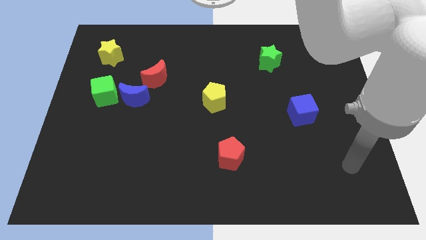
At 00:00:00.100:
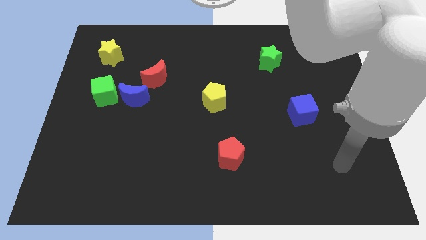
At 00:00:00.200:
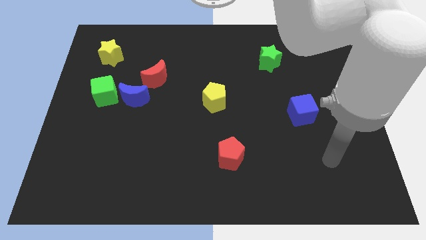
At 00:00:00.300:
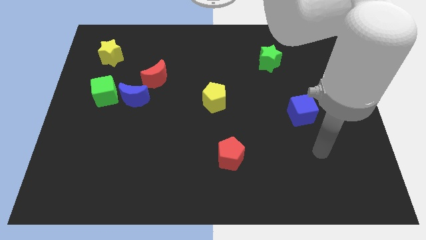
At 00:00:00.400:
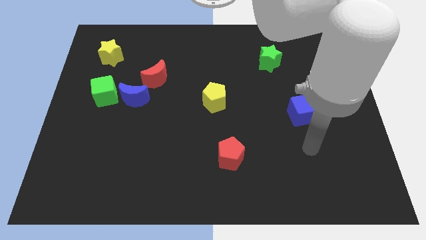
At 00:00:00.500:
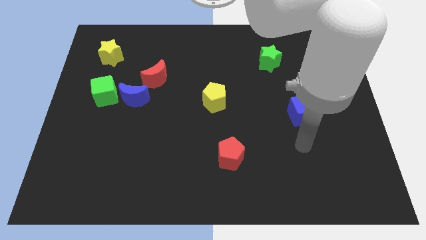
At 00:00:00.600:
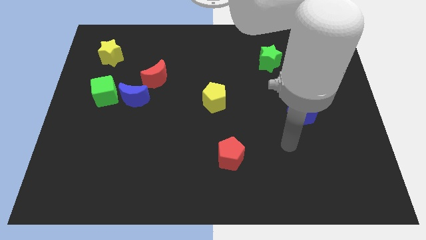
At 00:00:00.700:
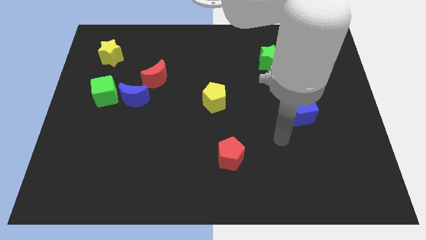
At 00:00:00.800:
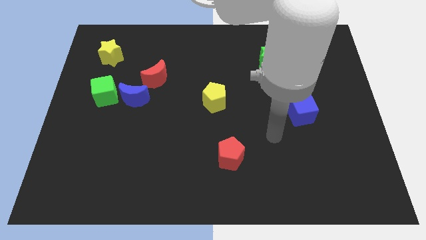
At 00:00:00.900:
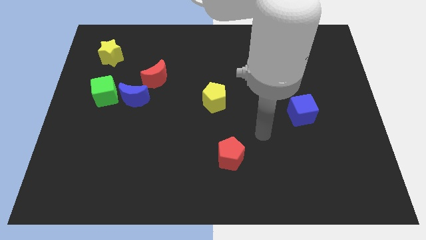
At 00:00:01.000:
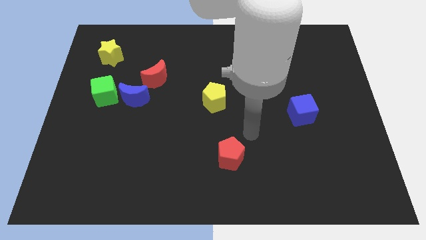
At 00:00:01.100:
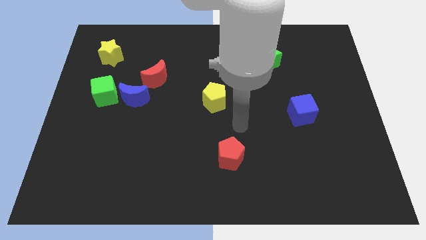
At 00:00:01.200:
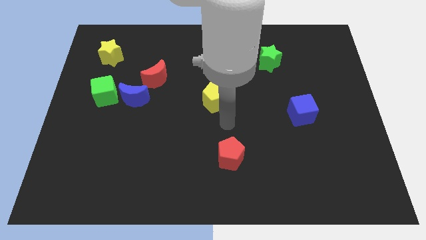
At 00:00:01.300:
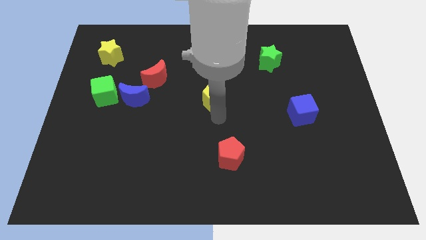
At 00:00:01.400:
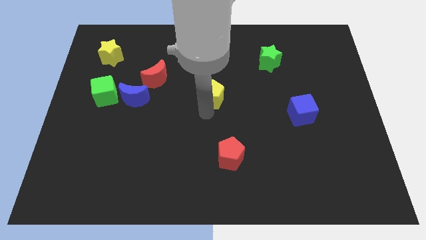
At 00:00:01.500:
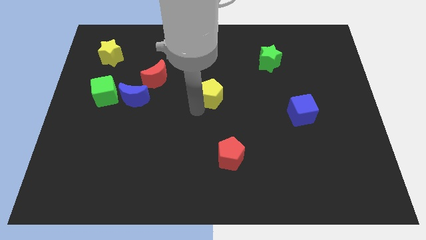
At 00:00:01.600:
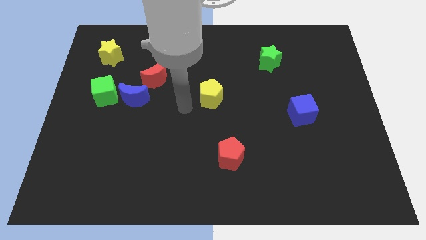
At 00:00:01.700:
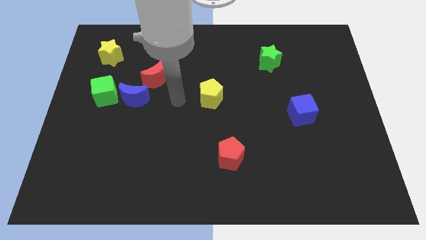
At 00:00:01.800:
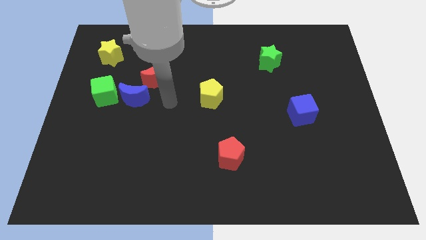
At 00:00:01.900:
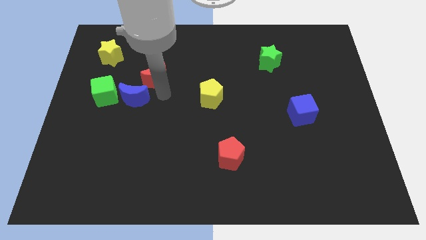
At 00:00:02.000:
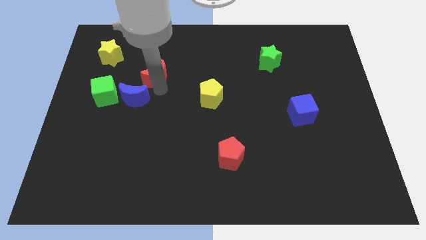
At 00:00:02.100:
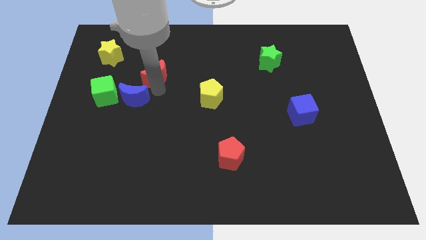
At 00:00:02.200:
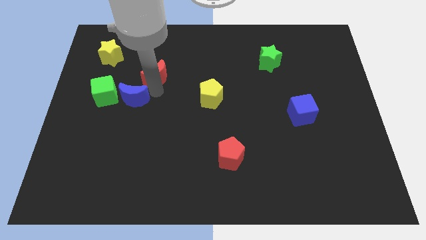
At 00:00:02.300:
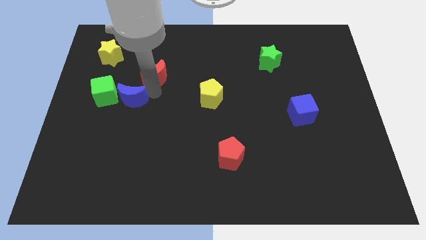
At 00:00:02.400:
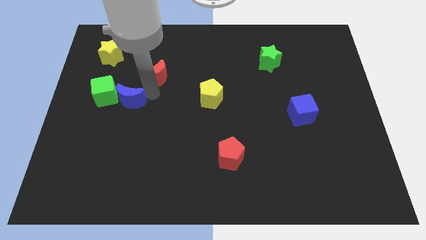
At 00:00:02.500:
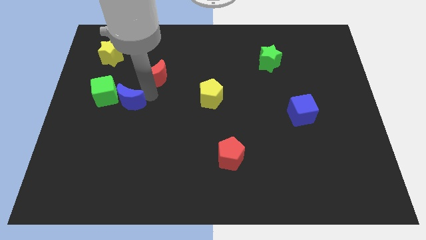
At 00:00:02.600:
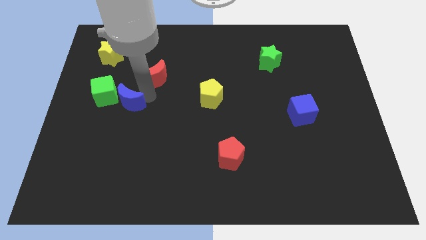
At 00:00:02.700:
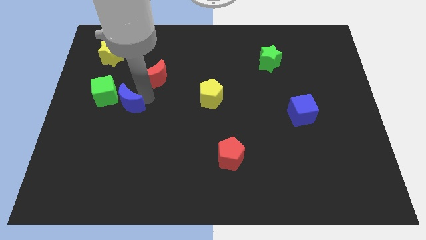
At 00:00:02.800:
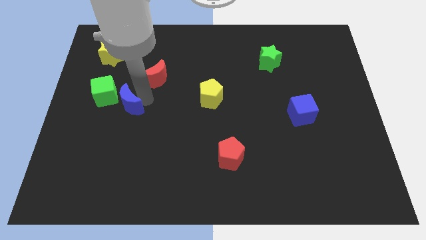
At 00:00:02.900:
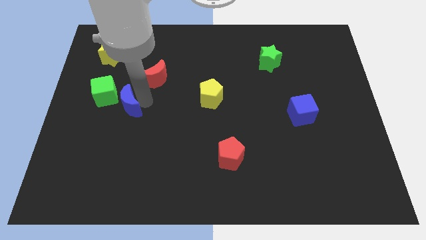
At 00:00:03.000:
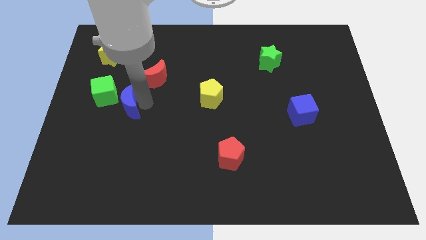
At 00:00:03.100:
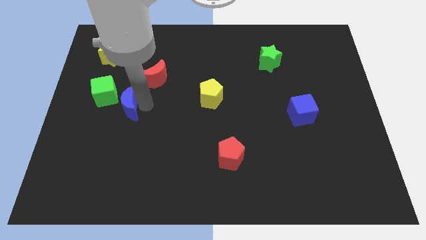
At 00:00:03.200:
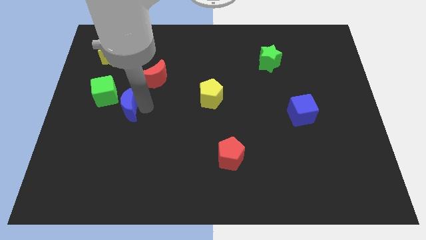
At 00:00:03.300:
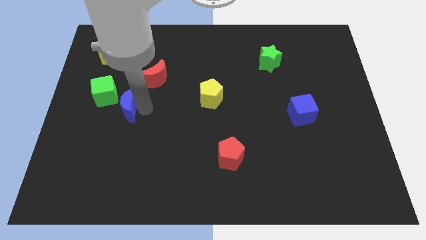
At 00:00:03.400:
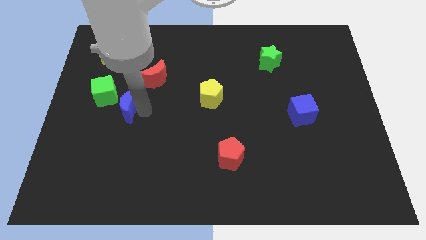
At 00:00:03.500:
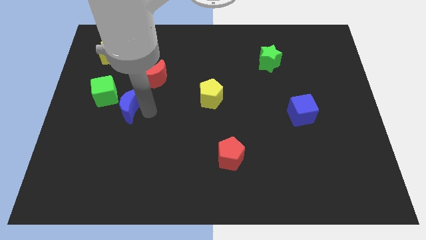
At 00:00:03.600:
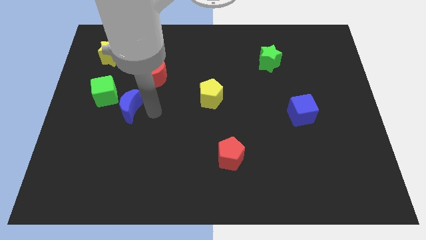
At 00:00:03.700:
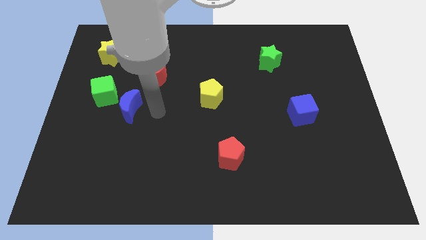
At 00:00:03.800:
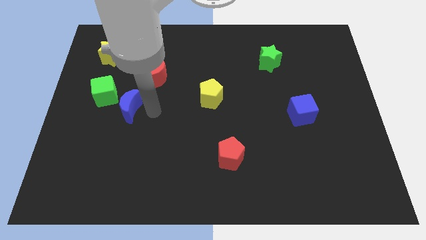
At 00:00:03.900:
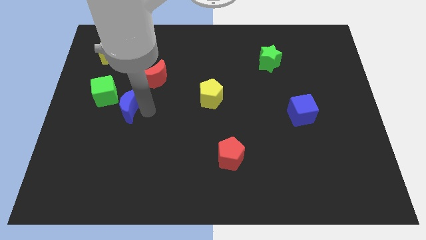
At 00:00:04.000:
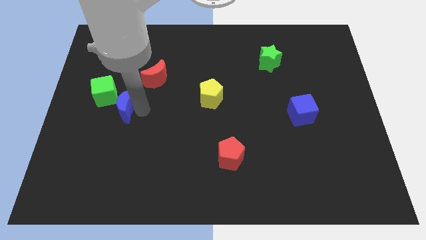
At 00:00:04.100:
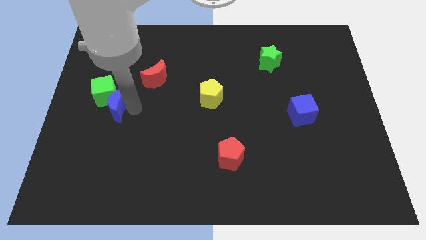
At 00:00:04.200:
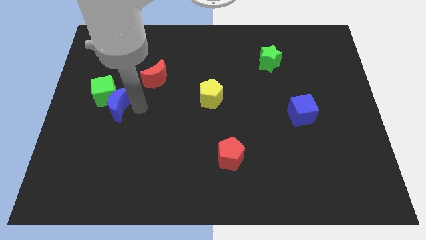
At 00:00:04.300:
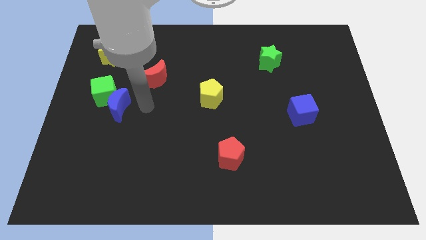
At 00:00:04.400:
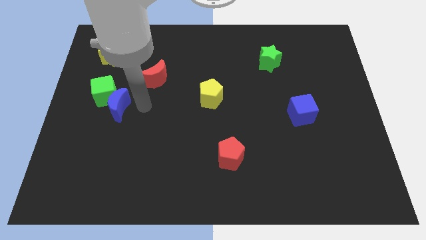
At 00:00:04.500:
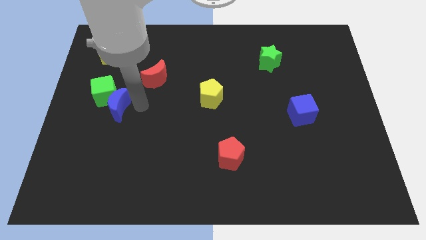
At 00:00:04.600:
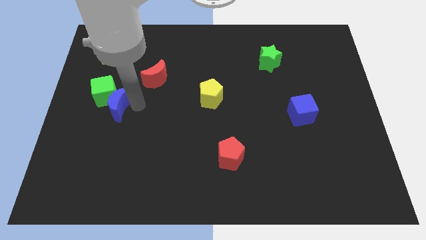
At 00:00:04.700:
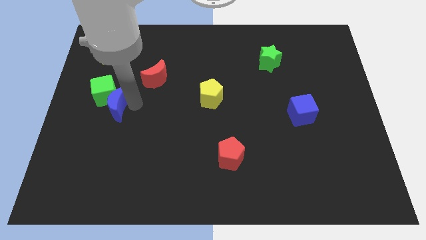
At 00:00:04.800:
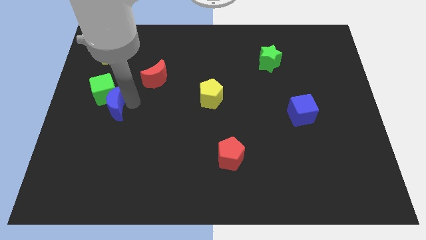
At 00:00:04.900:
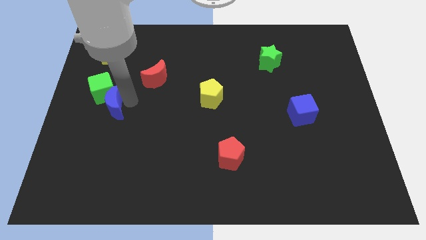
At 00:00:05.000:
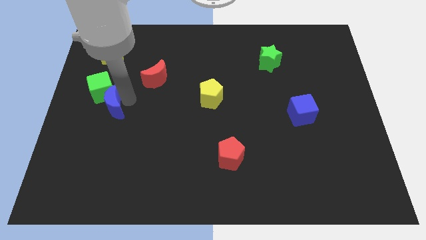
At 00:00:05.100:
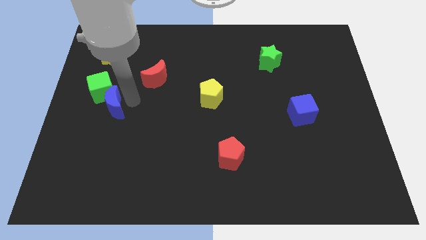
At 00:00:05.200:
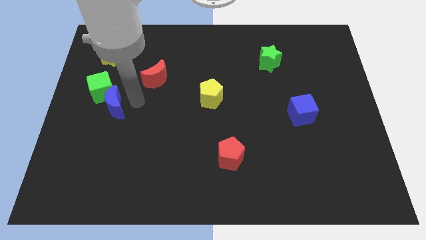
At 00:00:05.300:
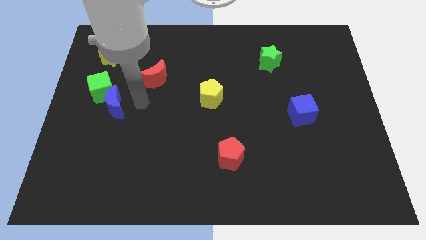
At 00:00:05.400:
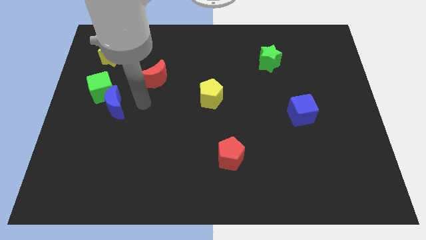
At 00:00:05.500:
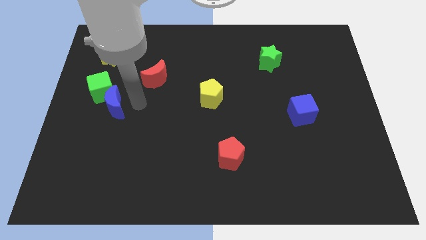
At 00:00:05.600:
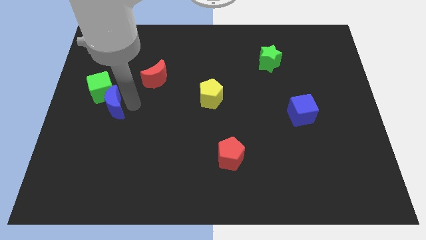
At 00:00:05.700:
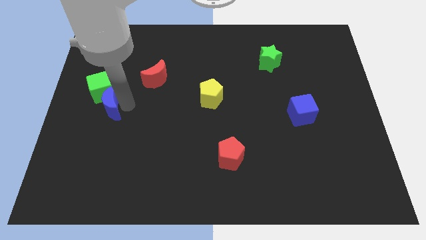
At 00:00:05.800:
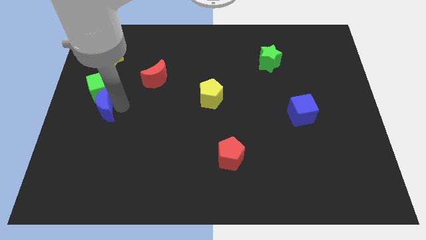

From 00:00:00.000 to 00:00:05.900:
put the blue moon to the left side of the board
